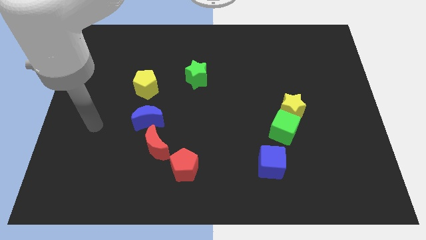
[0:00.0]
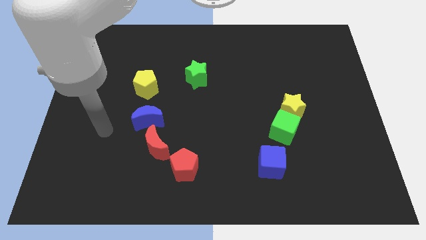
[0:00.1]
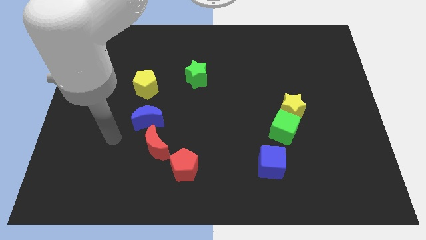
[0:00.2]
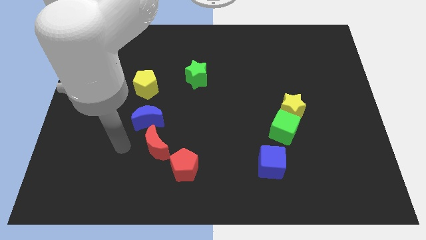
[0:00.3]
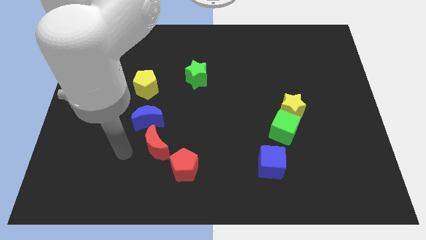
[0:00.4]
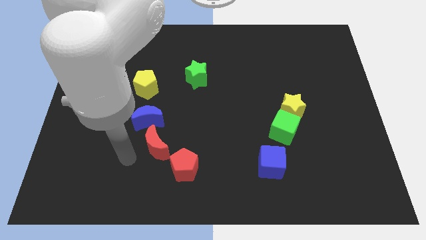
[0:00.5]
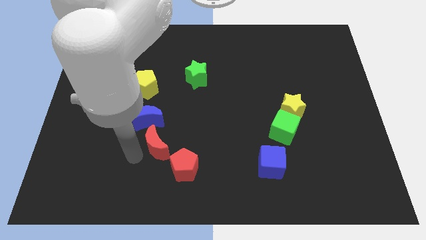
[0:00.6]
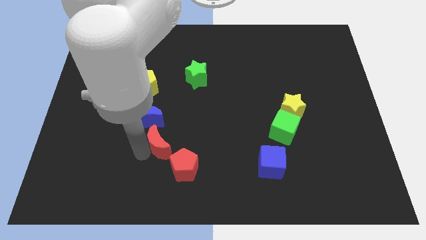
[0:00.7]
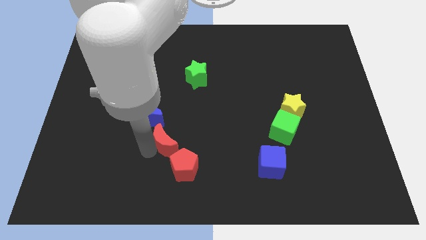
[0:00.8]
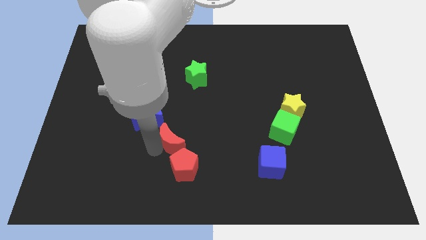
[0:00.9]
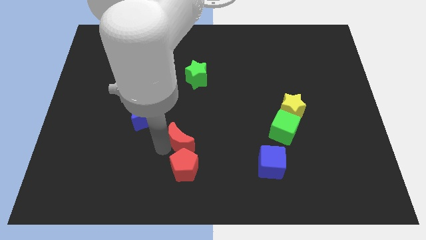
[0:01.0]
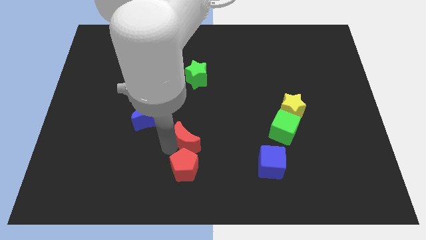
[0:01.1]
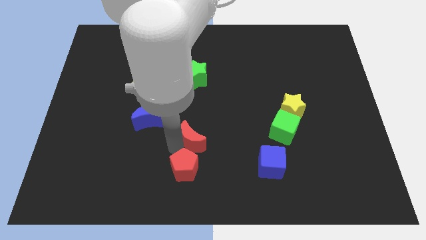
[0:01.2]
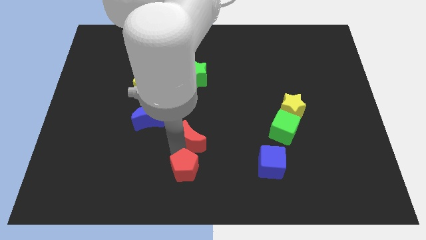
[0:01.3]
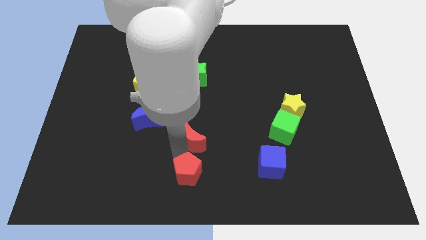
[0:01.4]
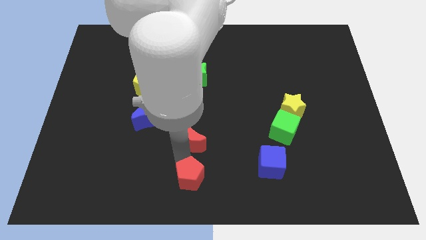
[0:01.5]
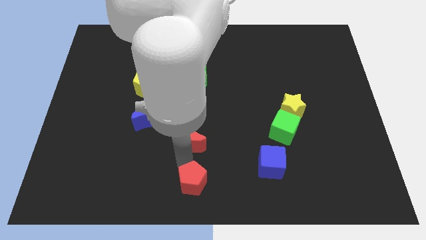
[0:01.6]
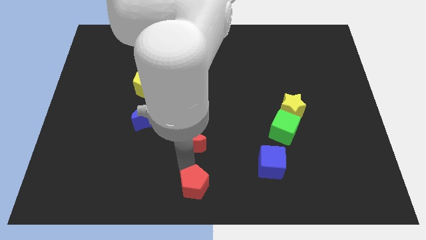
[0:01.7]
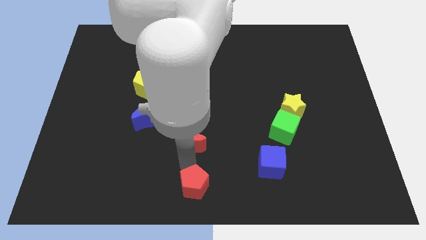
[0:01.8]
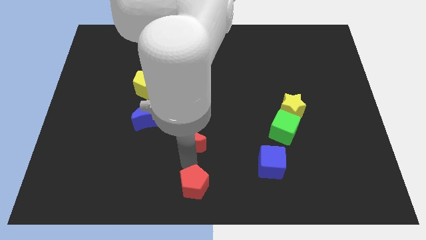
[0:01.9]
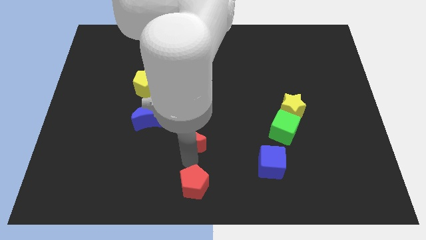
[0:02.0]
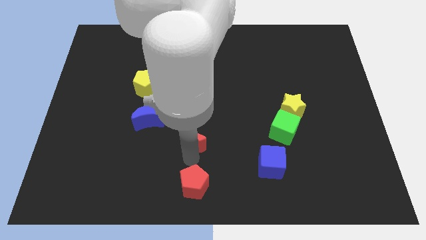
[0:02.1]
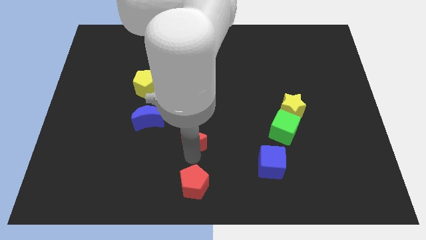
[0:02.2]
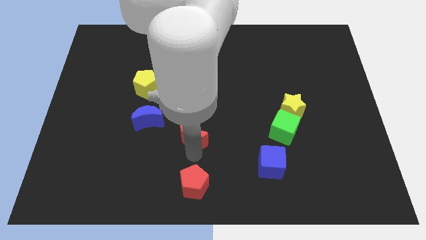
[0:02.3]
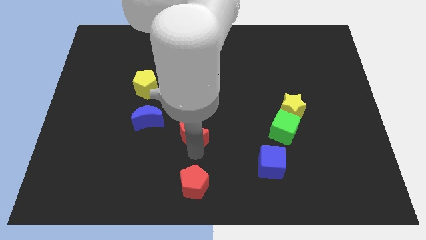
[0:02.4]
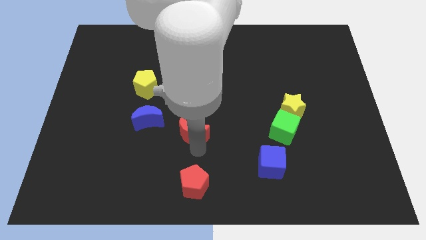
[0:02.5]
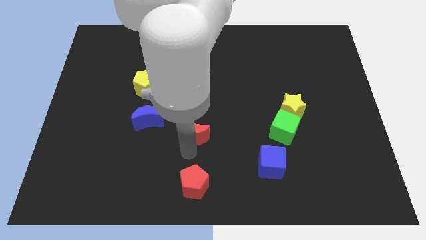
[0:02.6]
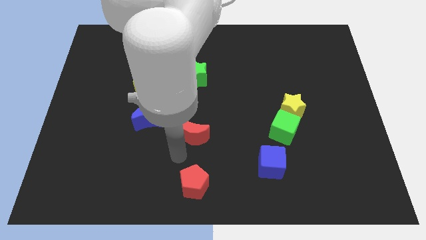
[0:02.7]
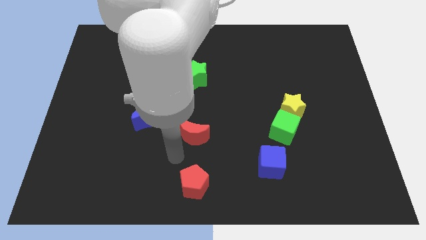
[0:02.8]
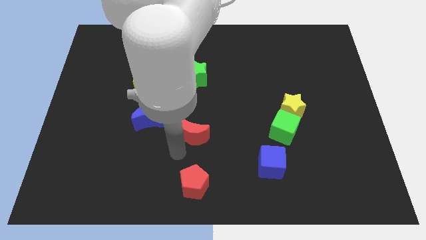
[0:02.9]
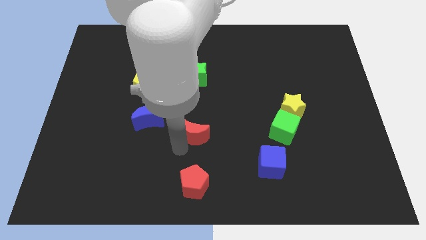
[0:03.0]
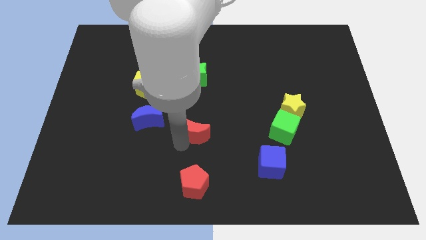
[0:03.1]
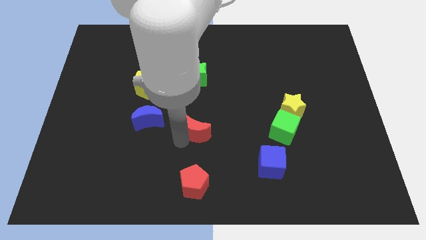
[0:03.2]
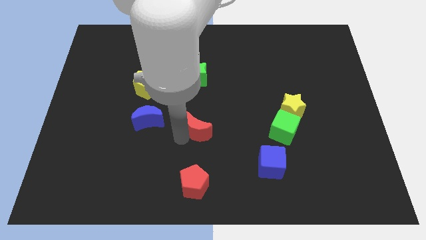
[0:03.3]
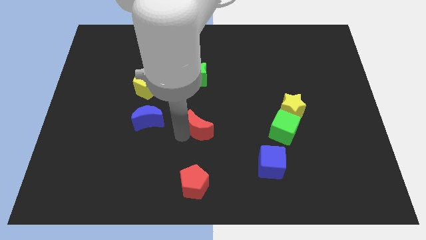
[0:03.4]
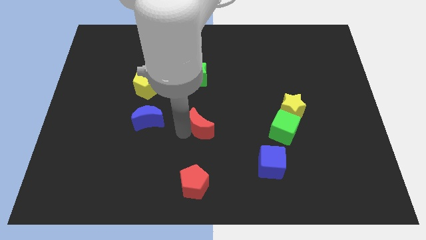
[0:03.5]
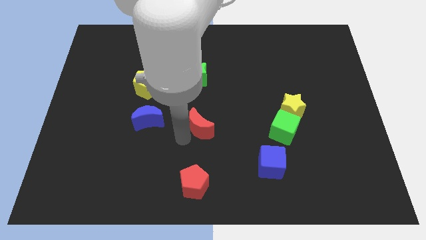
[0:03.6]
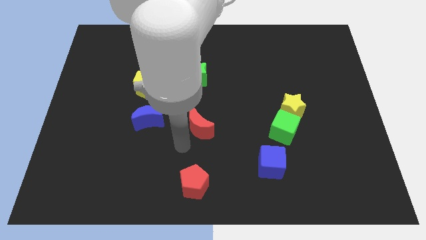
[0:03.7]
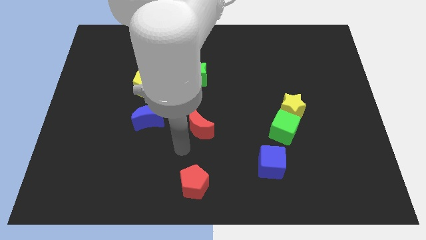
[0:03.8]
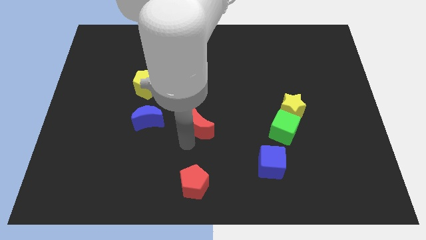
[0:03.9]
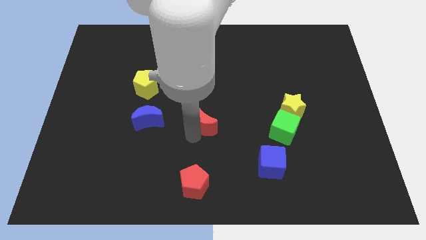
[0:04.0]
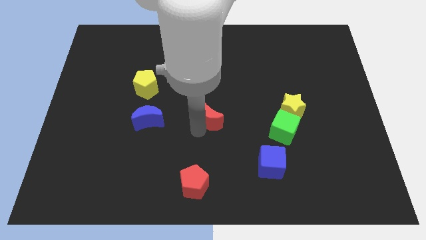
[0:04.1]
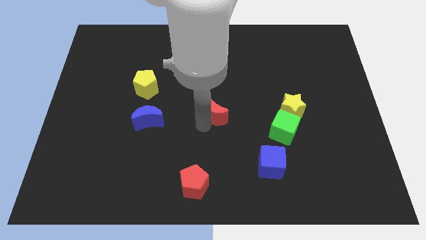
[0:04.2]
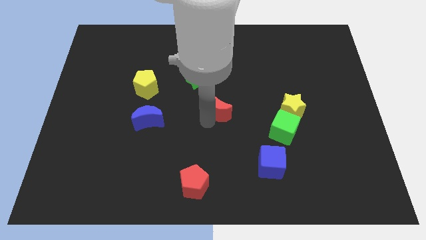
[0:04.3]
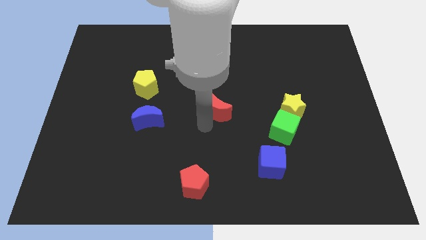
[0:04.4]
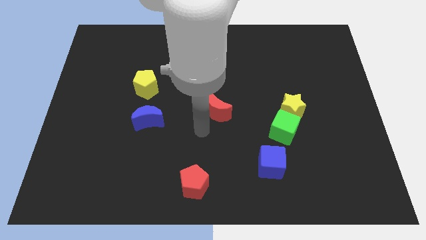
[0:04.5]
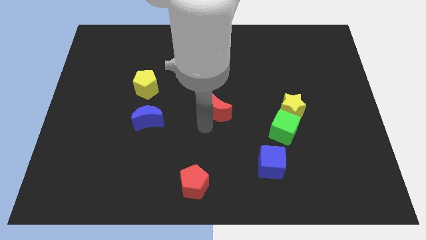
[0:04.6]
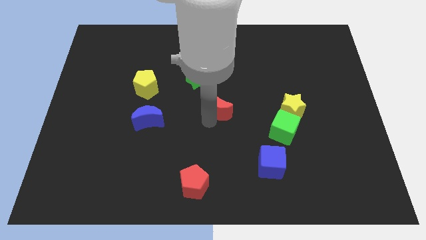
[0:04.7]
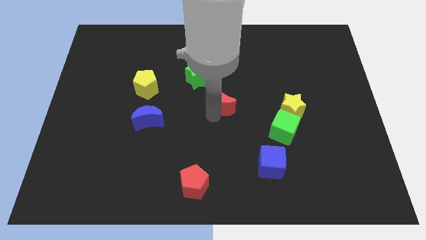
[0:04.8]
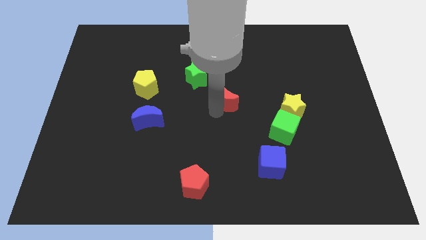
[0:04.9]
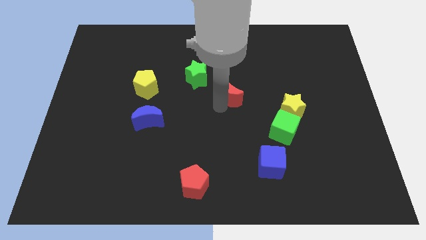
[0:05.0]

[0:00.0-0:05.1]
slide the red moon upwards and then right

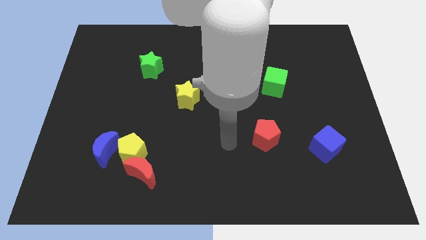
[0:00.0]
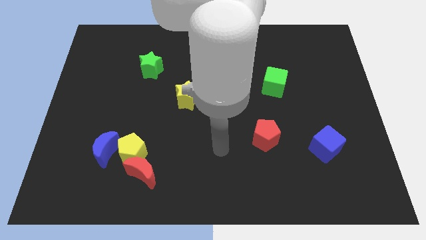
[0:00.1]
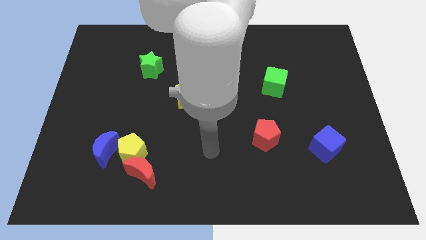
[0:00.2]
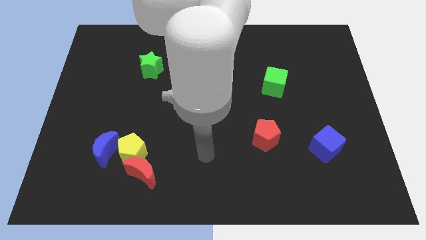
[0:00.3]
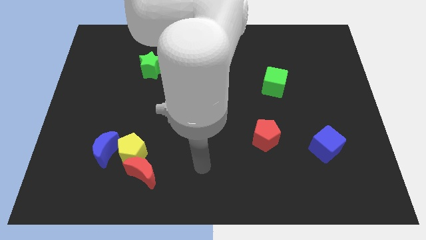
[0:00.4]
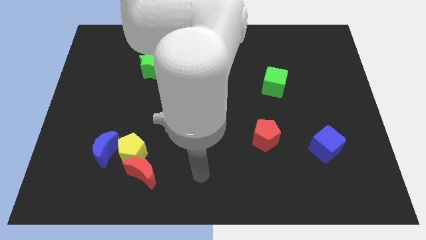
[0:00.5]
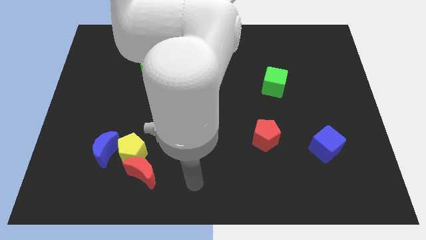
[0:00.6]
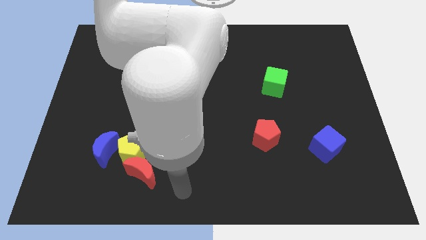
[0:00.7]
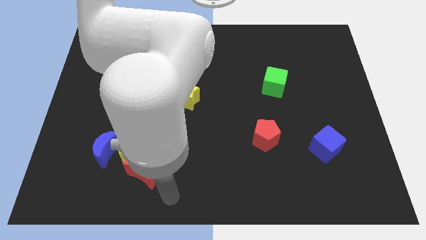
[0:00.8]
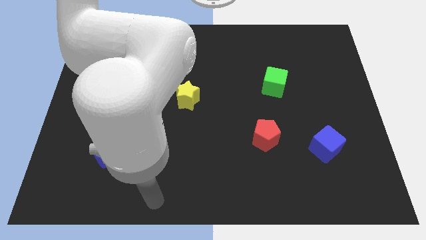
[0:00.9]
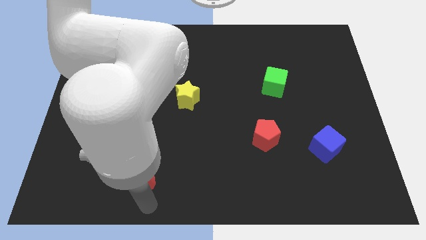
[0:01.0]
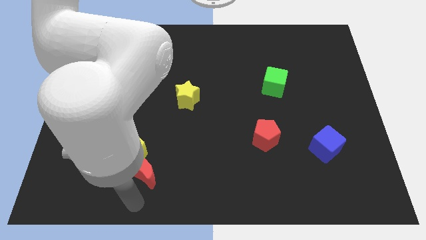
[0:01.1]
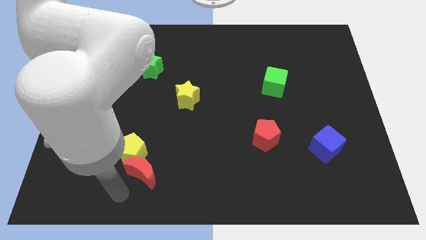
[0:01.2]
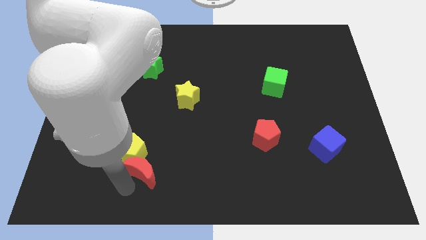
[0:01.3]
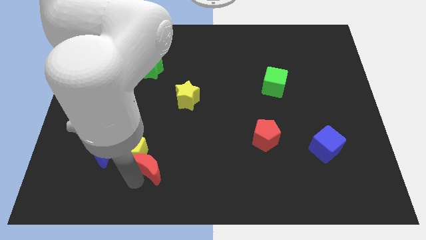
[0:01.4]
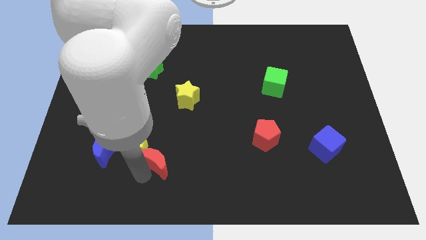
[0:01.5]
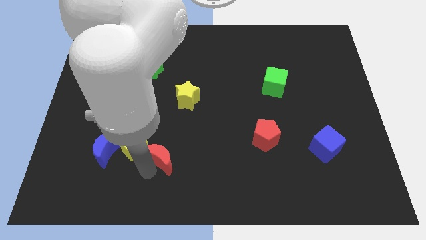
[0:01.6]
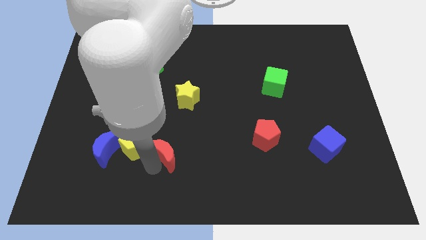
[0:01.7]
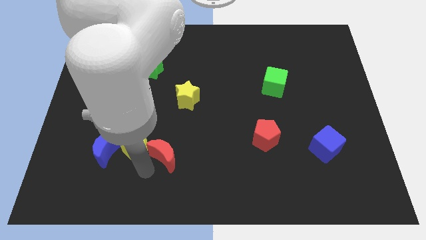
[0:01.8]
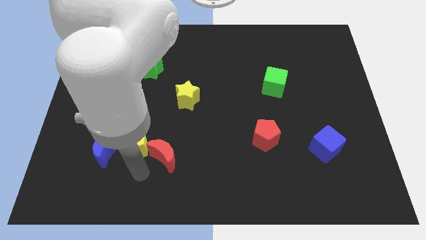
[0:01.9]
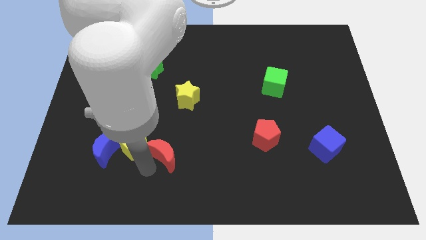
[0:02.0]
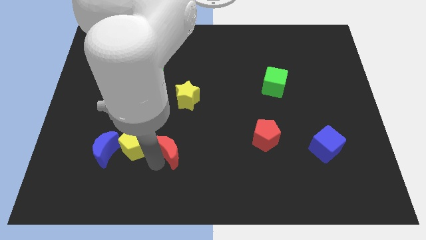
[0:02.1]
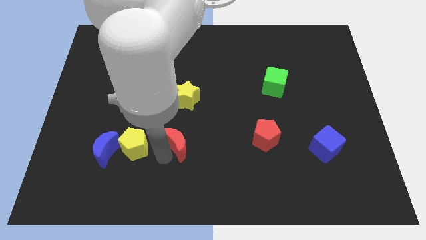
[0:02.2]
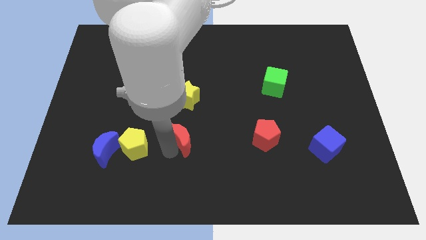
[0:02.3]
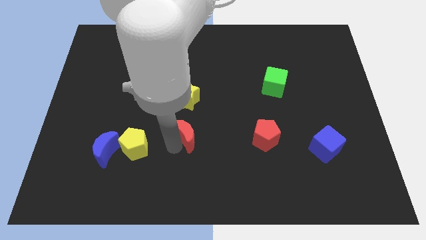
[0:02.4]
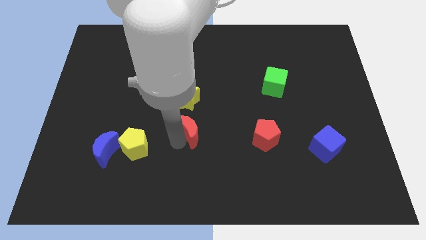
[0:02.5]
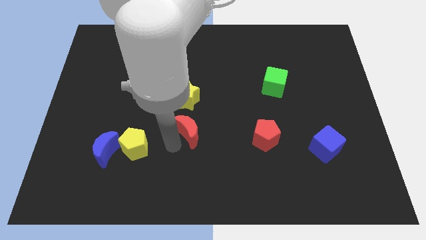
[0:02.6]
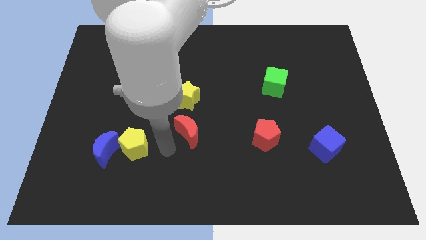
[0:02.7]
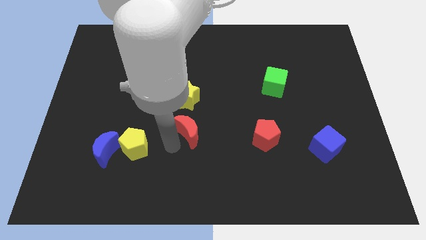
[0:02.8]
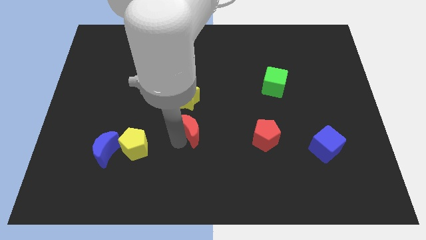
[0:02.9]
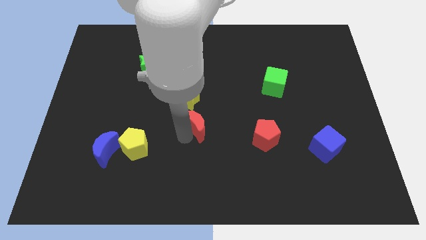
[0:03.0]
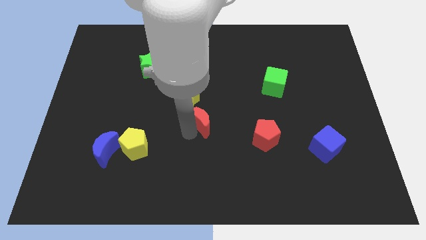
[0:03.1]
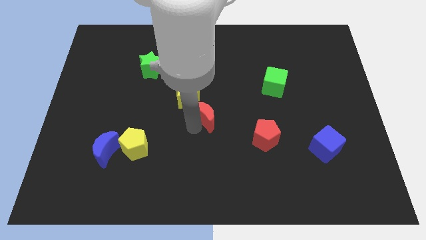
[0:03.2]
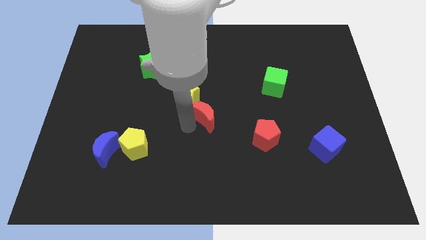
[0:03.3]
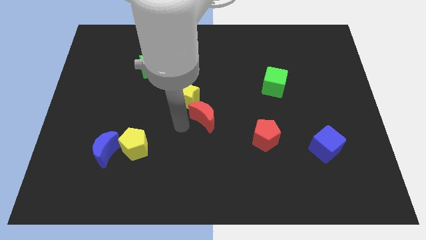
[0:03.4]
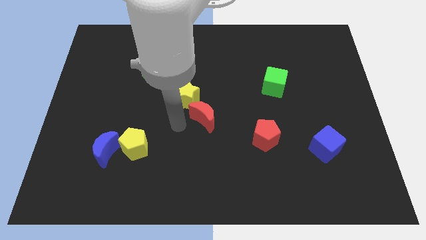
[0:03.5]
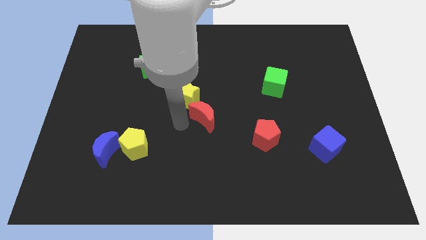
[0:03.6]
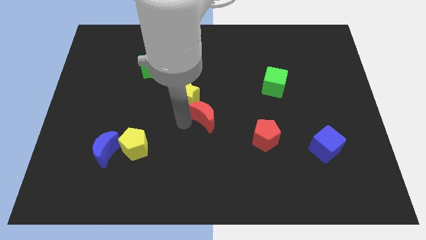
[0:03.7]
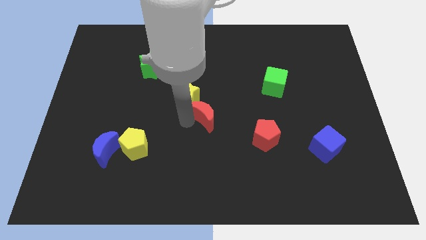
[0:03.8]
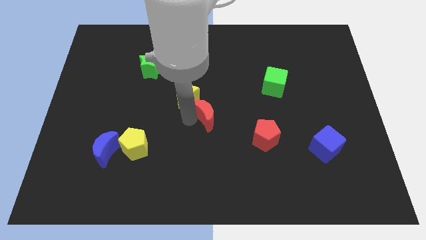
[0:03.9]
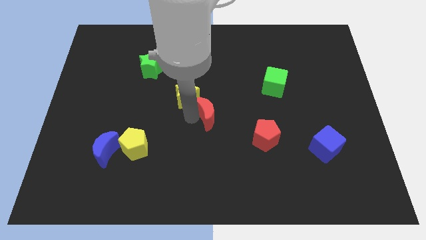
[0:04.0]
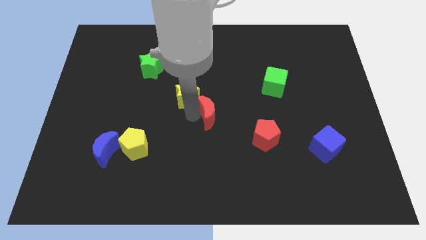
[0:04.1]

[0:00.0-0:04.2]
move the red moon diagonally upwards and right
